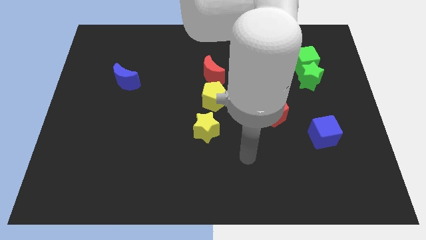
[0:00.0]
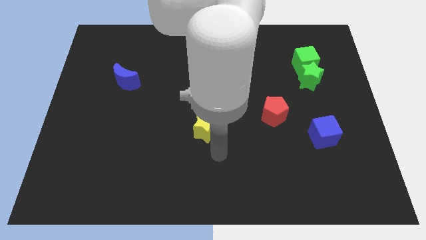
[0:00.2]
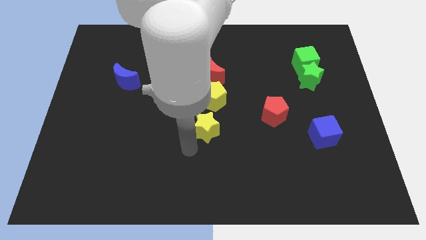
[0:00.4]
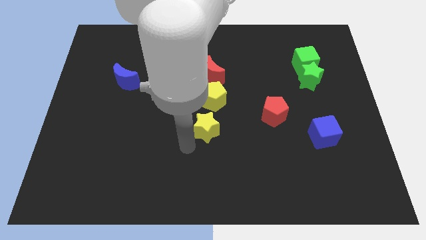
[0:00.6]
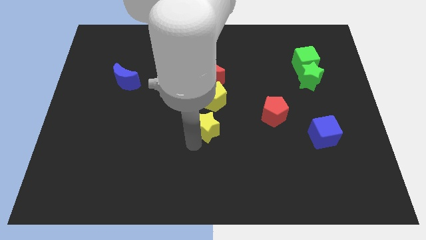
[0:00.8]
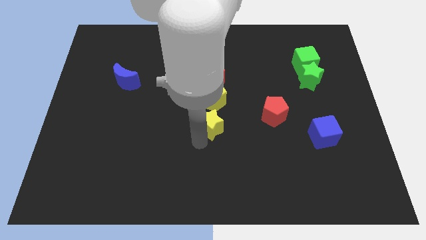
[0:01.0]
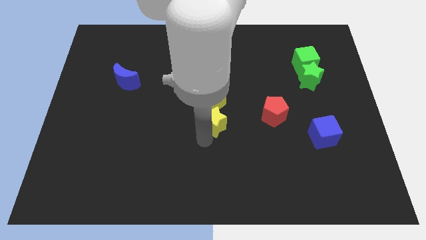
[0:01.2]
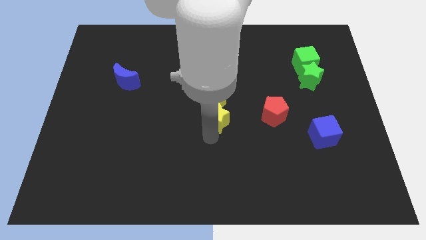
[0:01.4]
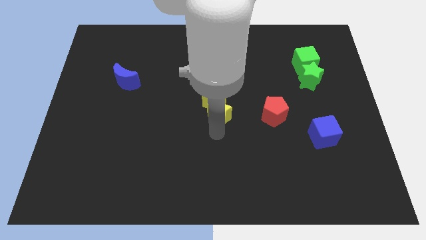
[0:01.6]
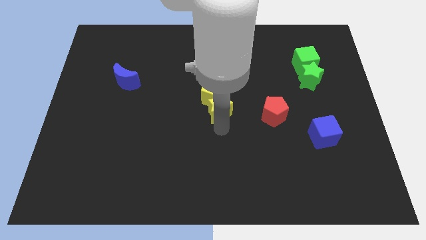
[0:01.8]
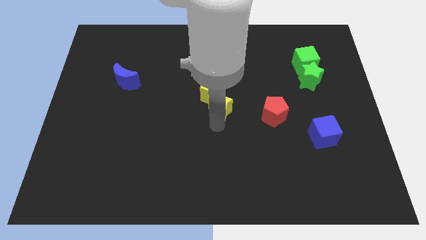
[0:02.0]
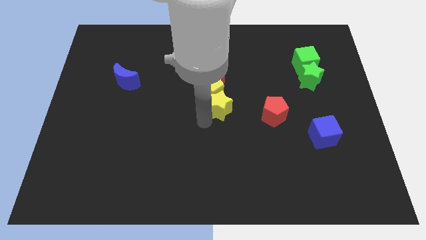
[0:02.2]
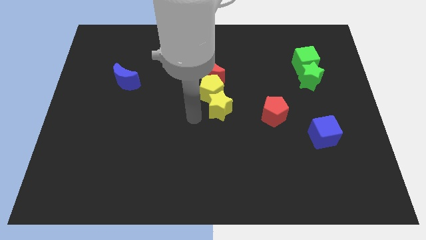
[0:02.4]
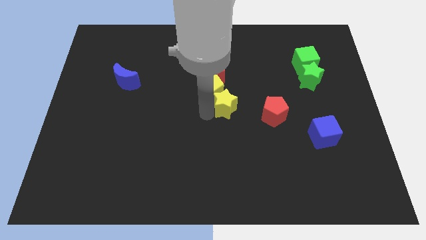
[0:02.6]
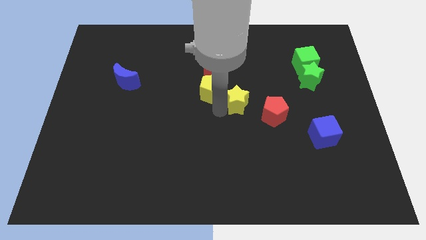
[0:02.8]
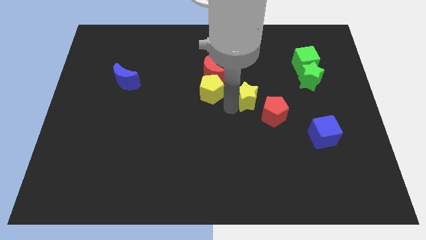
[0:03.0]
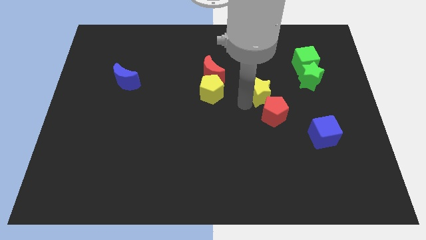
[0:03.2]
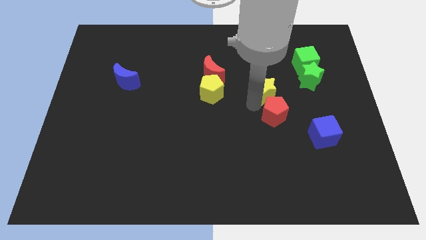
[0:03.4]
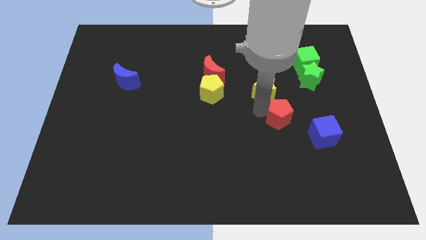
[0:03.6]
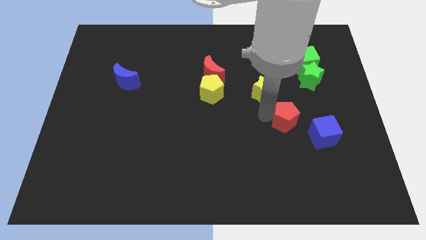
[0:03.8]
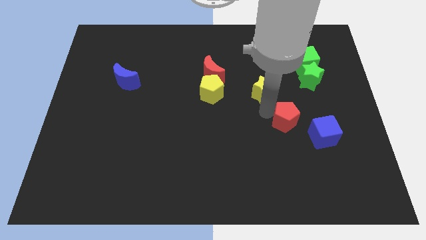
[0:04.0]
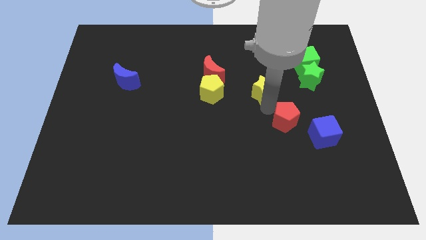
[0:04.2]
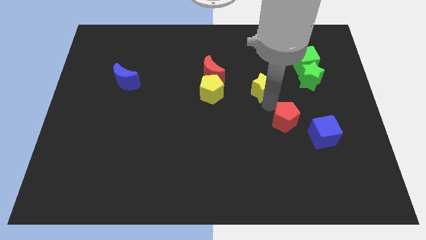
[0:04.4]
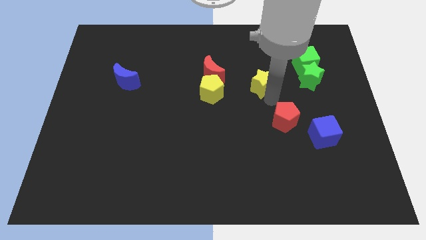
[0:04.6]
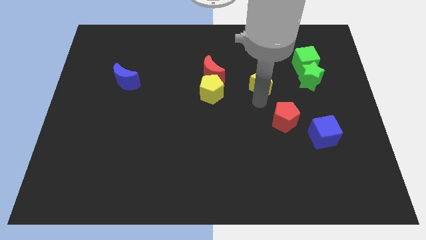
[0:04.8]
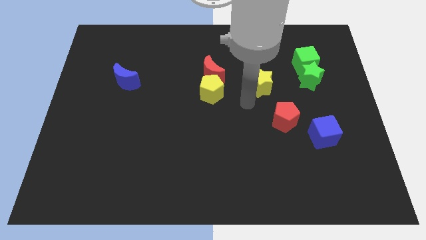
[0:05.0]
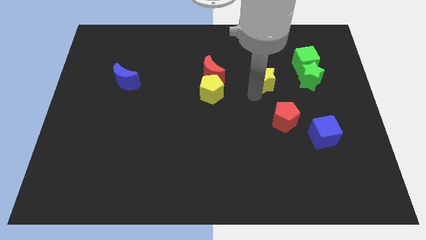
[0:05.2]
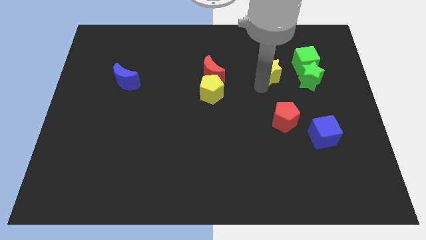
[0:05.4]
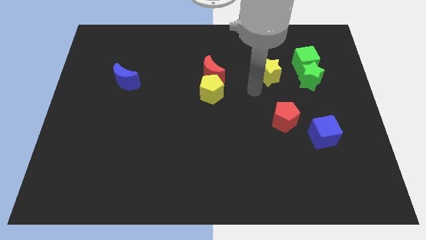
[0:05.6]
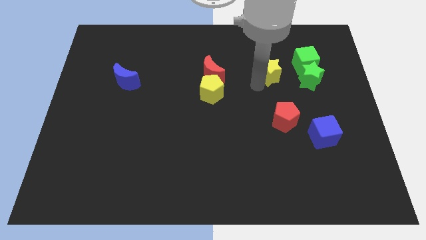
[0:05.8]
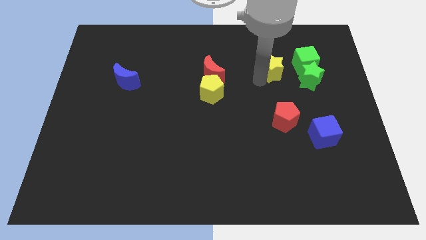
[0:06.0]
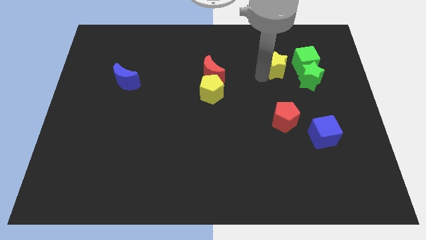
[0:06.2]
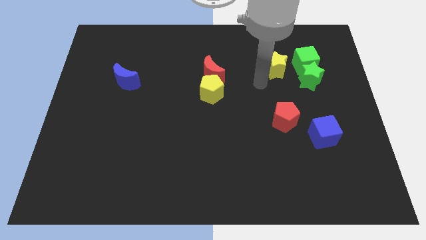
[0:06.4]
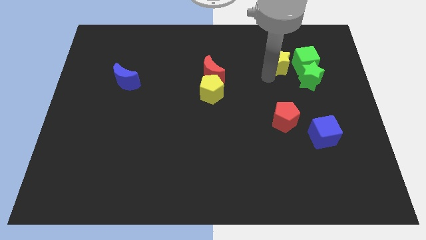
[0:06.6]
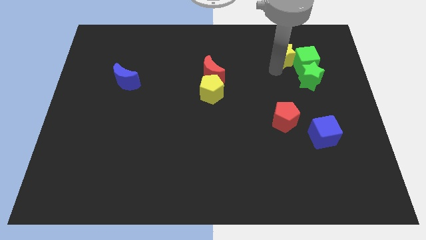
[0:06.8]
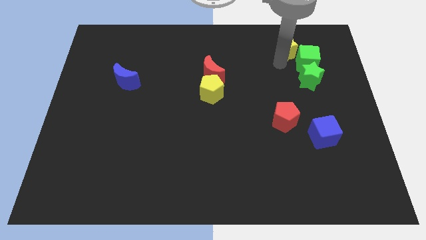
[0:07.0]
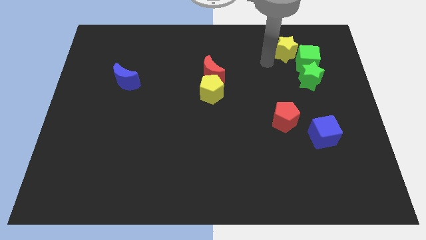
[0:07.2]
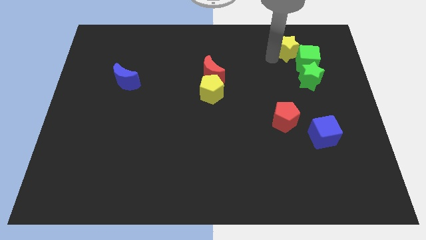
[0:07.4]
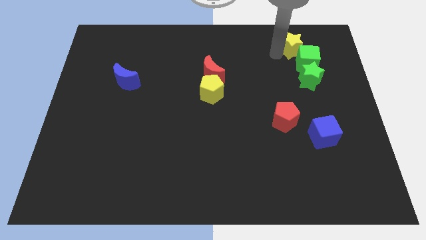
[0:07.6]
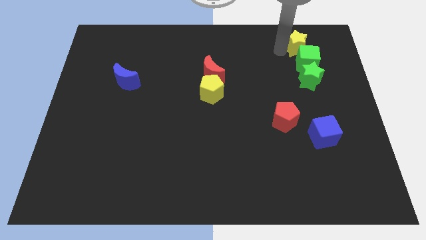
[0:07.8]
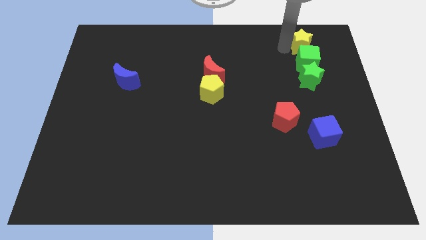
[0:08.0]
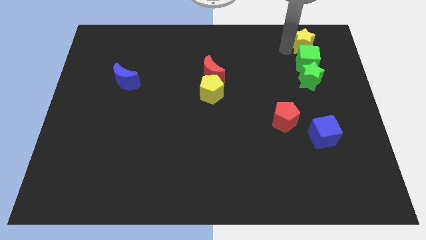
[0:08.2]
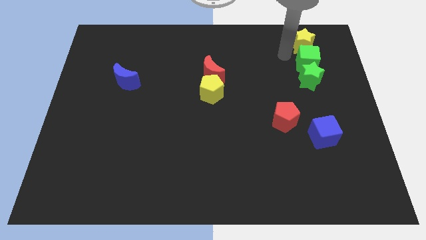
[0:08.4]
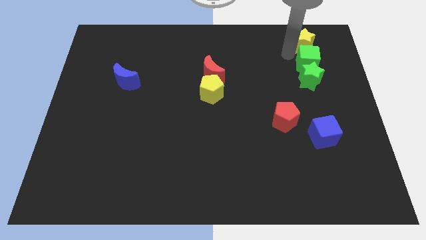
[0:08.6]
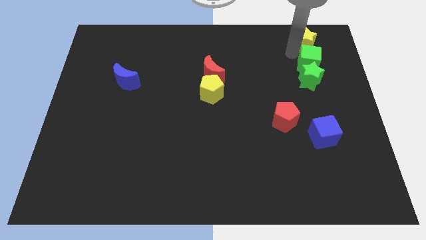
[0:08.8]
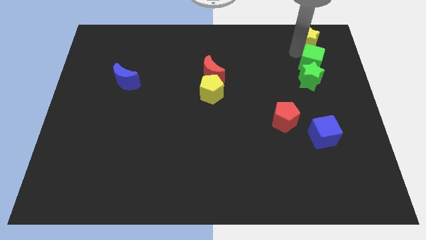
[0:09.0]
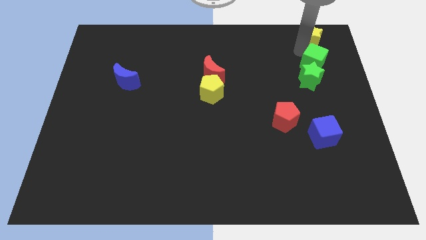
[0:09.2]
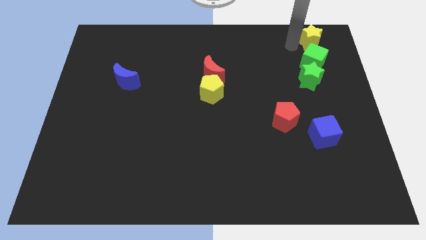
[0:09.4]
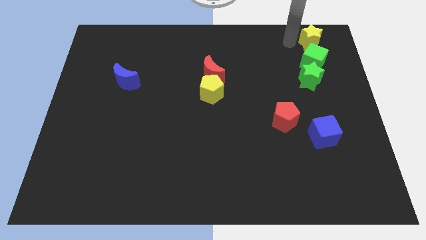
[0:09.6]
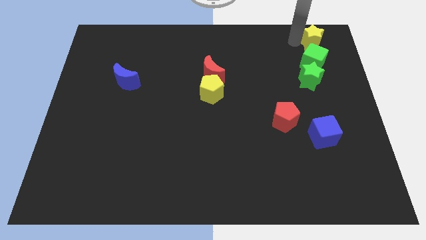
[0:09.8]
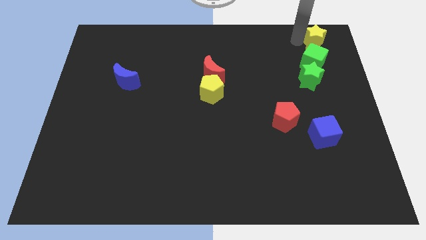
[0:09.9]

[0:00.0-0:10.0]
put the yellow star to the upper right corner

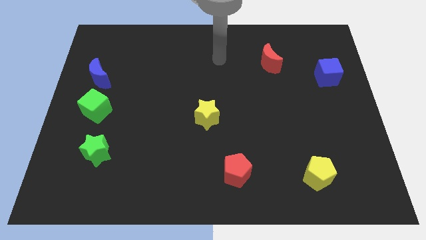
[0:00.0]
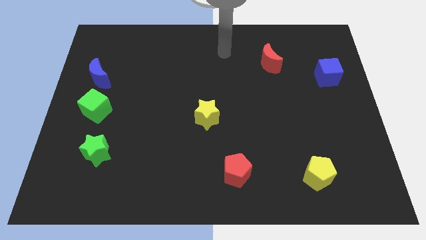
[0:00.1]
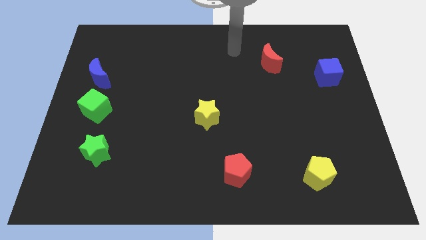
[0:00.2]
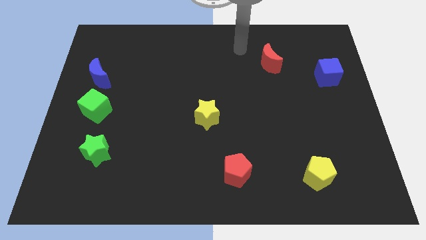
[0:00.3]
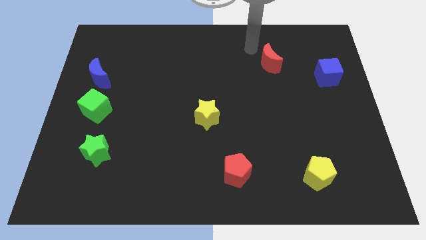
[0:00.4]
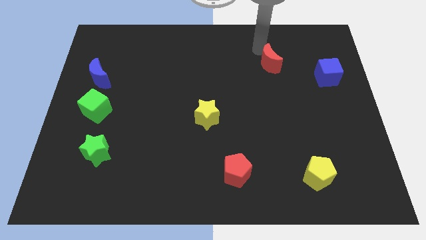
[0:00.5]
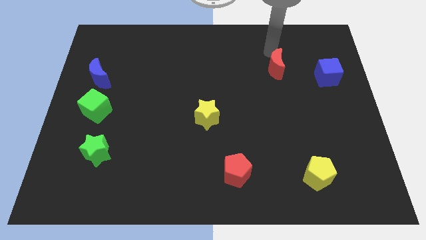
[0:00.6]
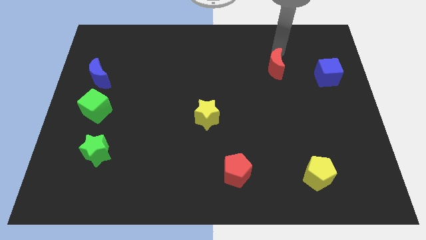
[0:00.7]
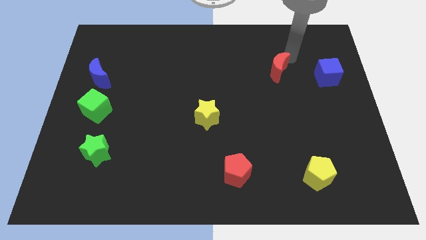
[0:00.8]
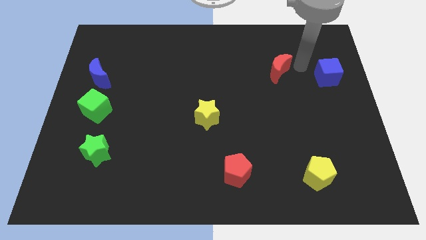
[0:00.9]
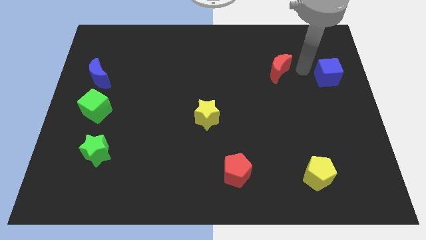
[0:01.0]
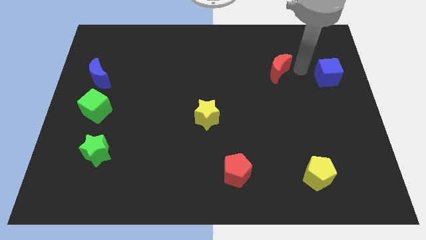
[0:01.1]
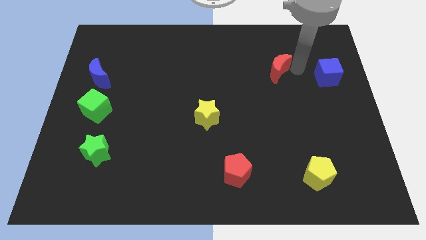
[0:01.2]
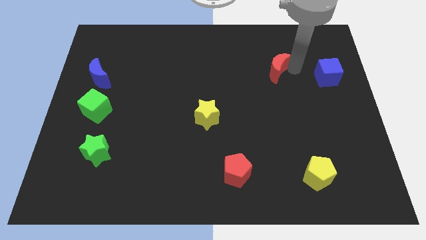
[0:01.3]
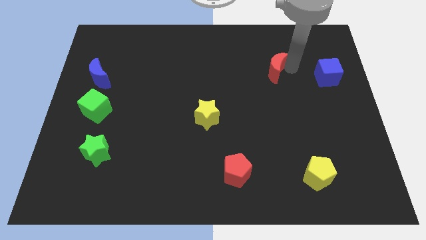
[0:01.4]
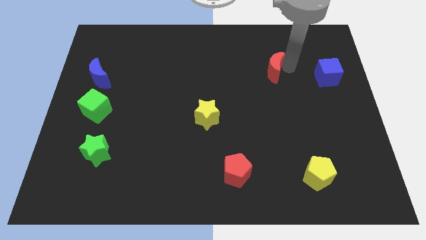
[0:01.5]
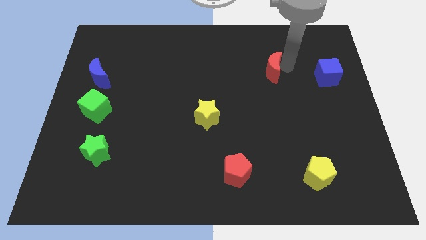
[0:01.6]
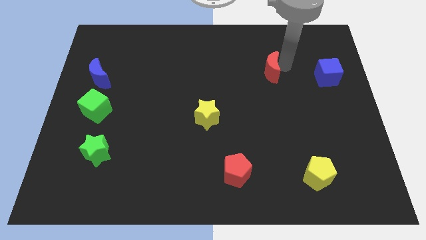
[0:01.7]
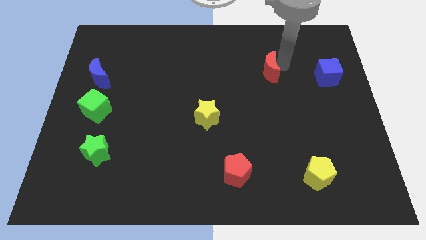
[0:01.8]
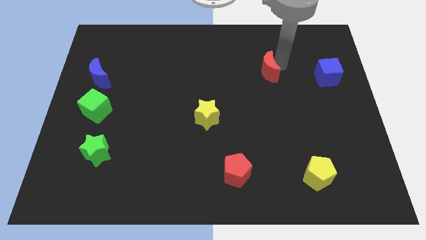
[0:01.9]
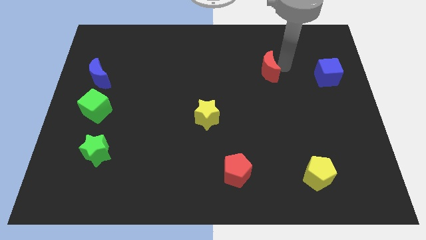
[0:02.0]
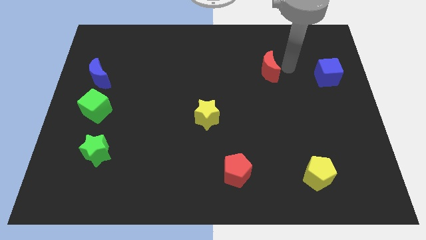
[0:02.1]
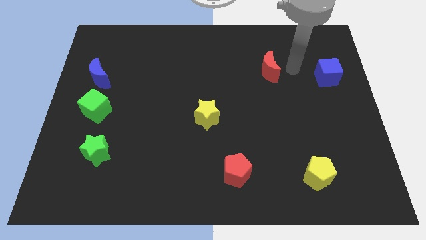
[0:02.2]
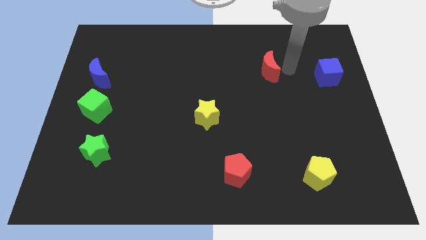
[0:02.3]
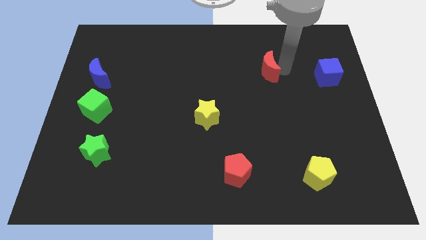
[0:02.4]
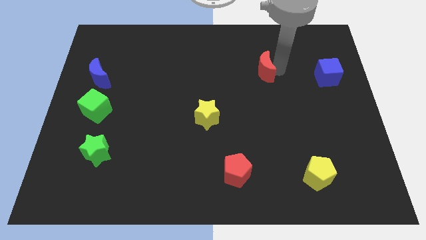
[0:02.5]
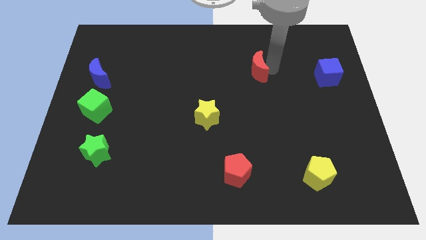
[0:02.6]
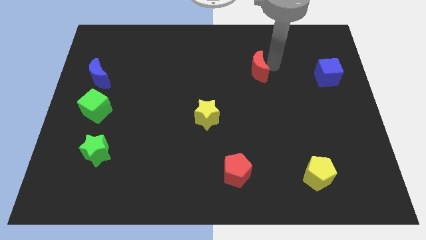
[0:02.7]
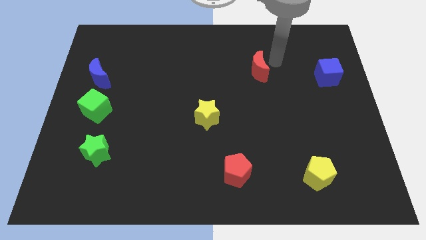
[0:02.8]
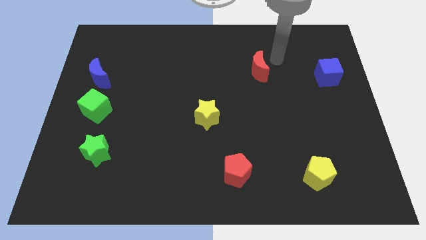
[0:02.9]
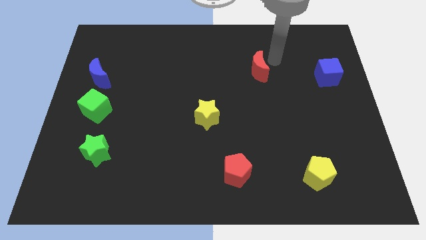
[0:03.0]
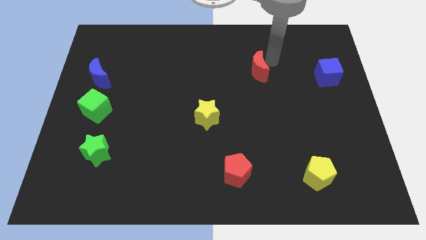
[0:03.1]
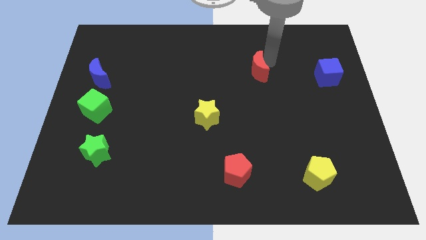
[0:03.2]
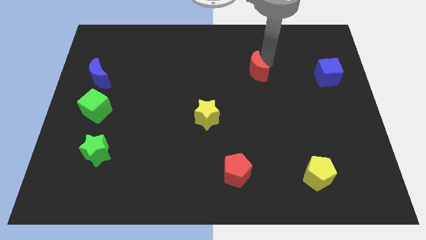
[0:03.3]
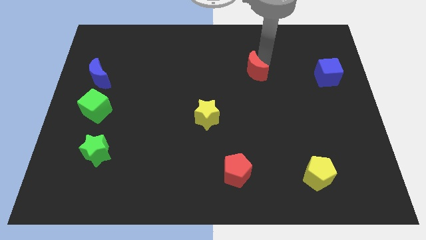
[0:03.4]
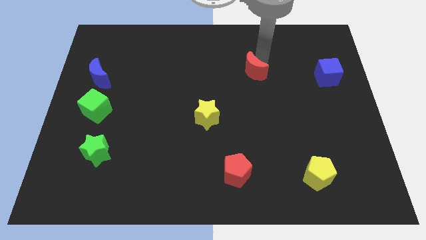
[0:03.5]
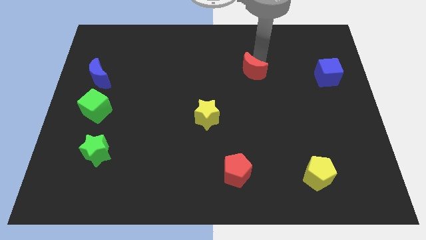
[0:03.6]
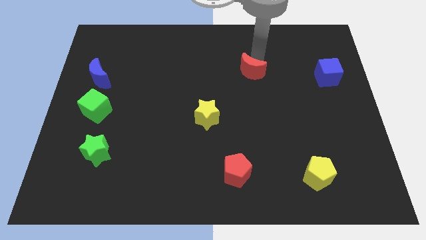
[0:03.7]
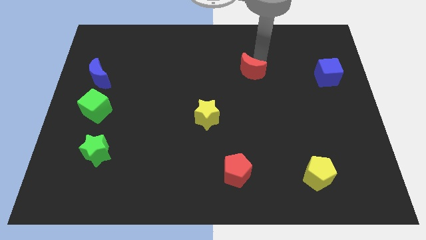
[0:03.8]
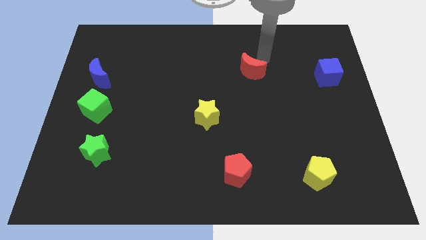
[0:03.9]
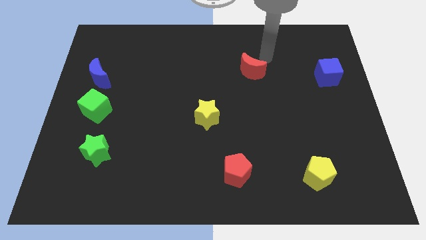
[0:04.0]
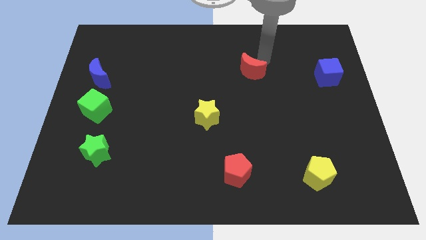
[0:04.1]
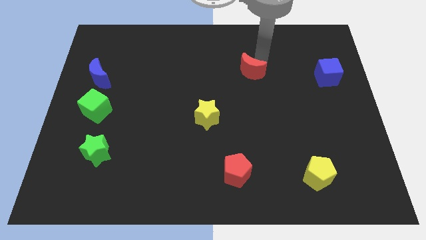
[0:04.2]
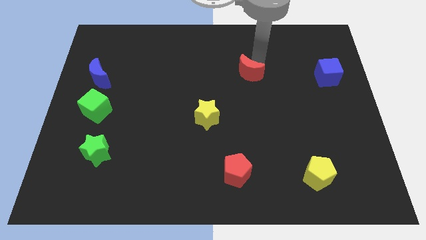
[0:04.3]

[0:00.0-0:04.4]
push the red moon to the center
